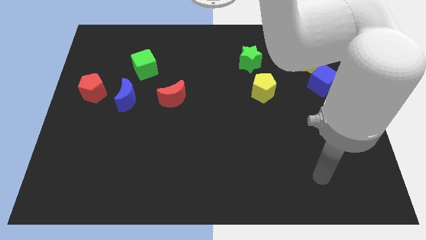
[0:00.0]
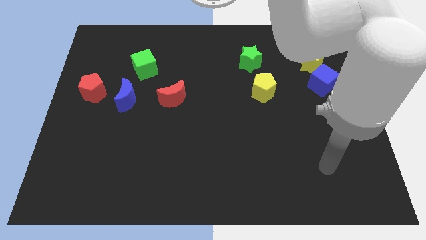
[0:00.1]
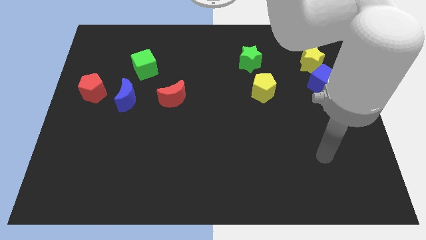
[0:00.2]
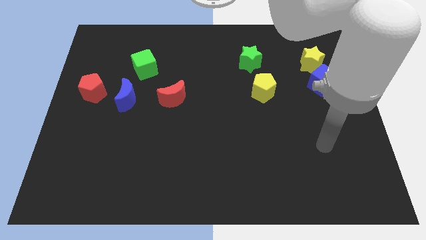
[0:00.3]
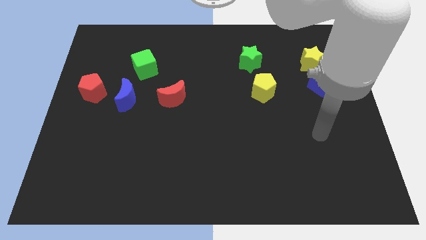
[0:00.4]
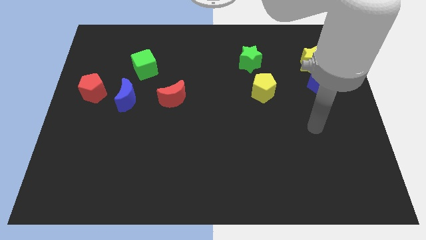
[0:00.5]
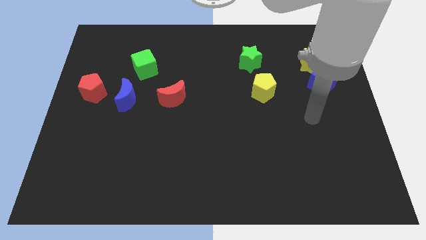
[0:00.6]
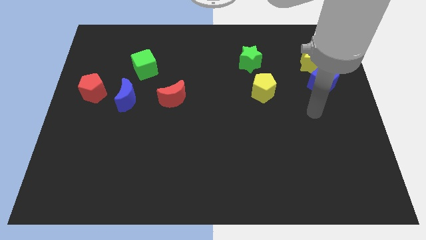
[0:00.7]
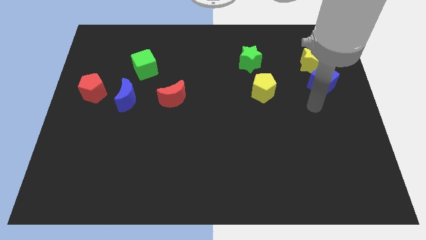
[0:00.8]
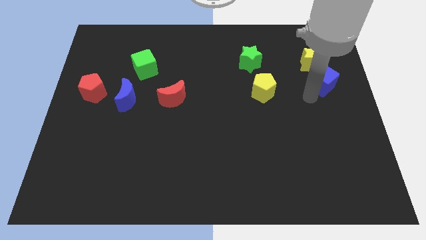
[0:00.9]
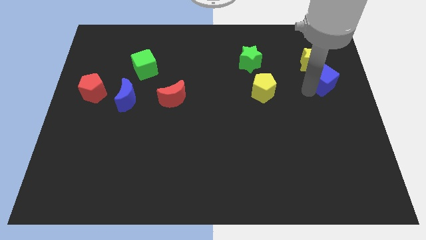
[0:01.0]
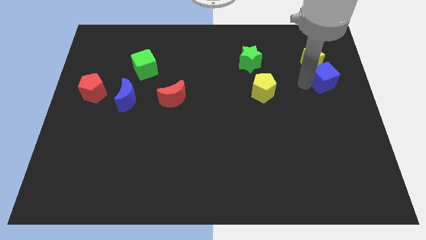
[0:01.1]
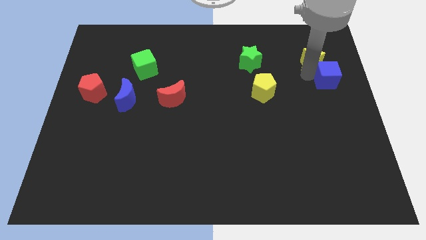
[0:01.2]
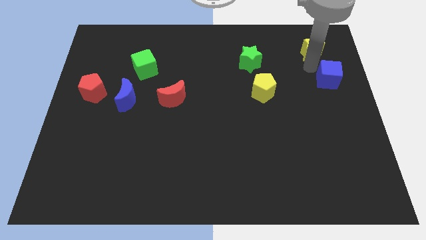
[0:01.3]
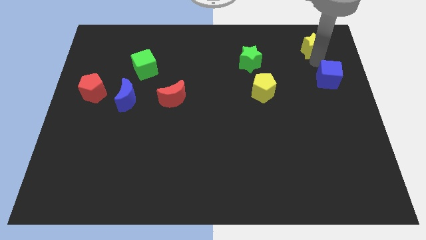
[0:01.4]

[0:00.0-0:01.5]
pull the blue cube apart from the yellow star

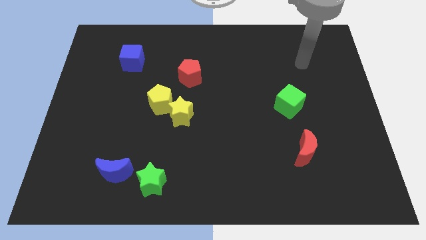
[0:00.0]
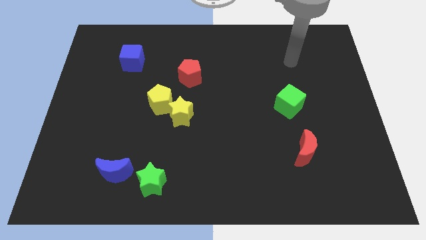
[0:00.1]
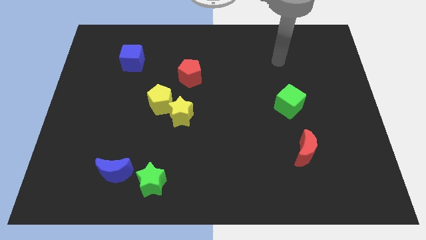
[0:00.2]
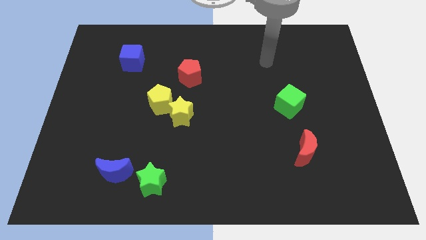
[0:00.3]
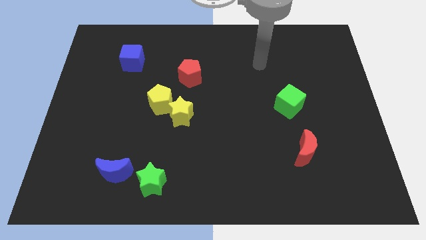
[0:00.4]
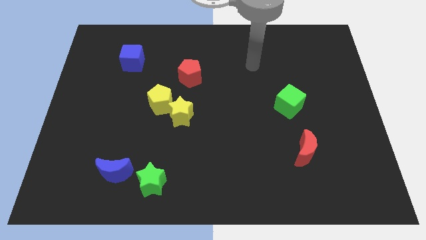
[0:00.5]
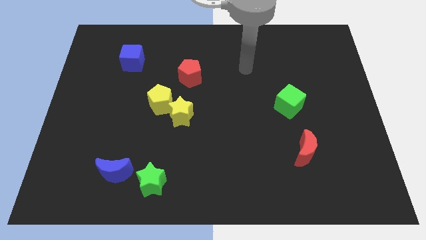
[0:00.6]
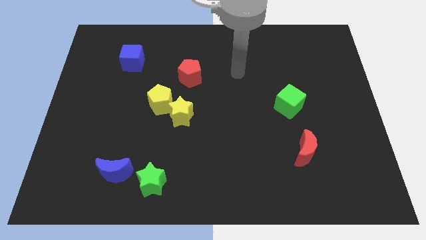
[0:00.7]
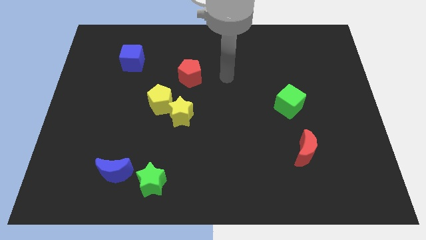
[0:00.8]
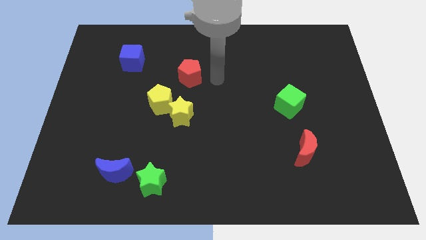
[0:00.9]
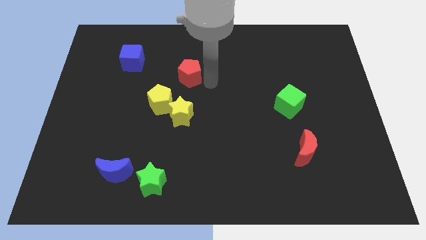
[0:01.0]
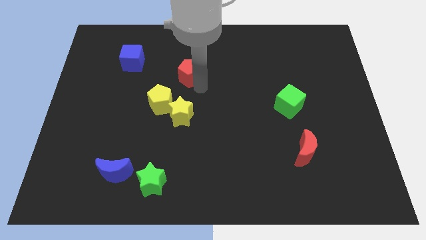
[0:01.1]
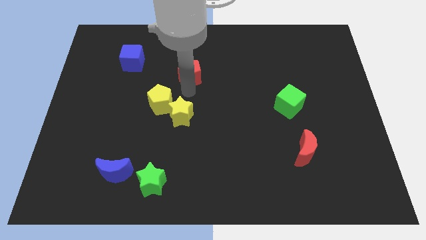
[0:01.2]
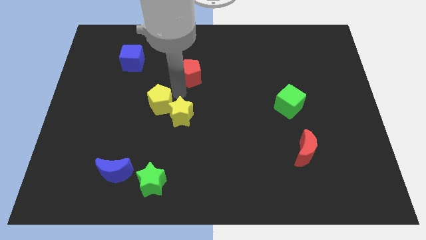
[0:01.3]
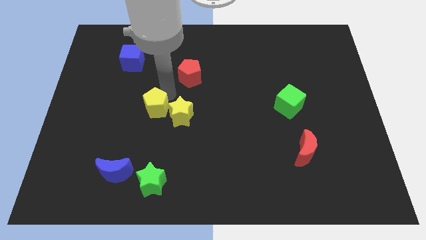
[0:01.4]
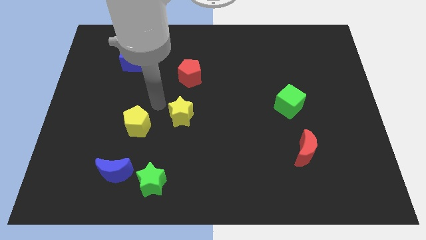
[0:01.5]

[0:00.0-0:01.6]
separate the yellow star from the yellow pentagon

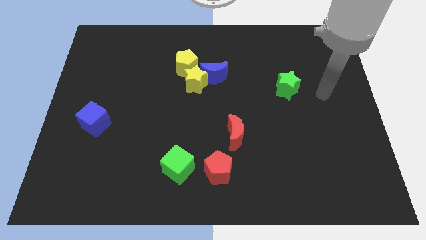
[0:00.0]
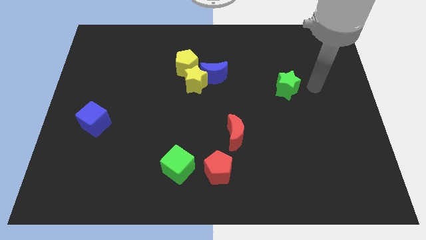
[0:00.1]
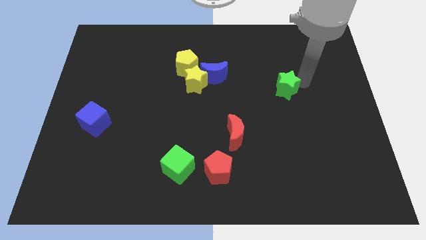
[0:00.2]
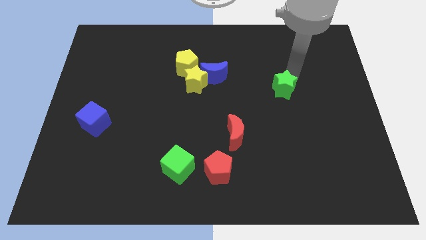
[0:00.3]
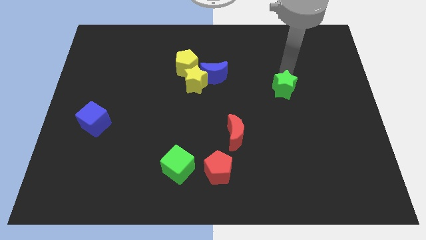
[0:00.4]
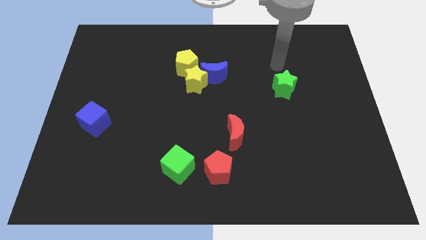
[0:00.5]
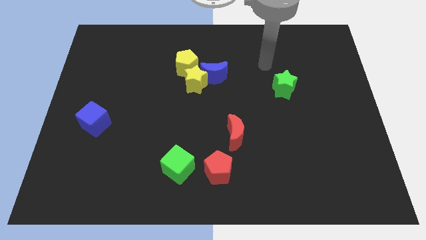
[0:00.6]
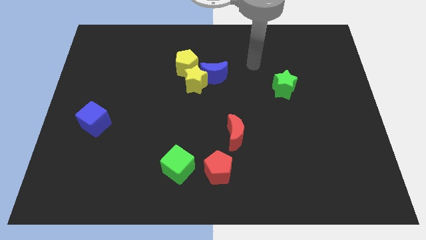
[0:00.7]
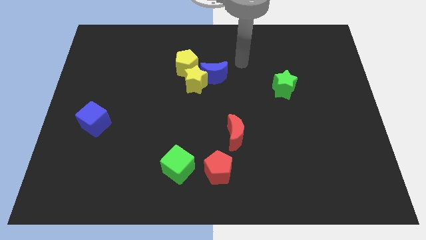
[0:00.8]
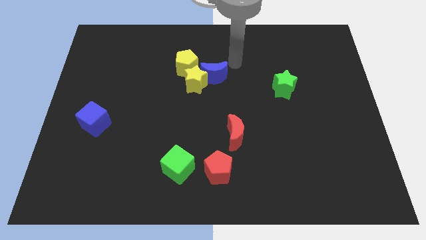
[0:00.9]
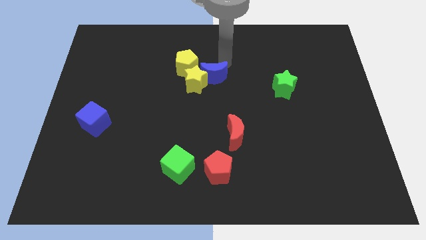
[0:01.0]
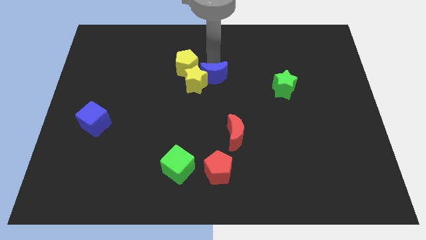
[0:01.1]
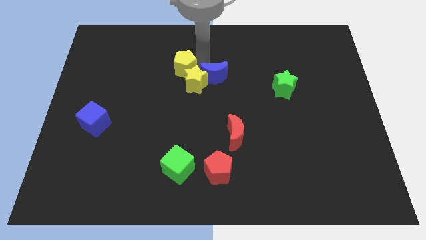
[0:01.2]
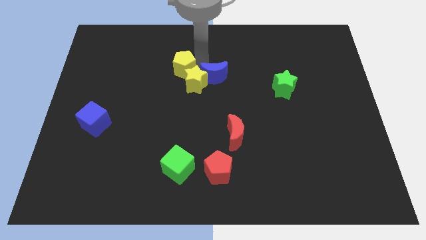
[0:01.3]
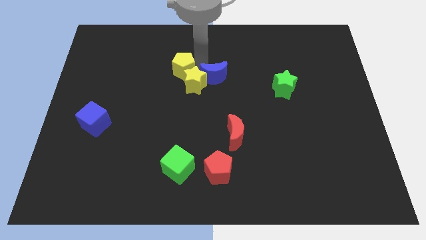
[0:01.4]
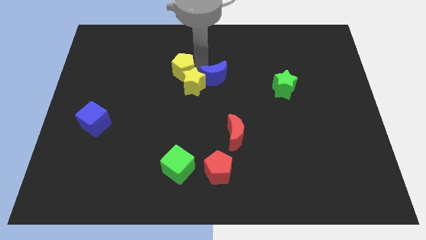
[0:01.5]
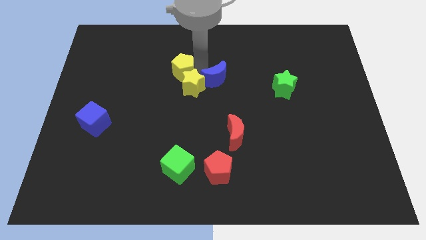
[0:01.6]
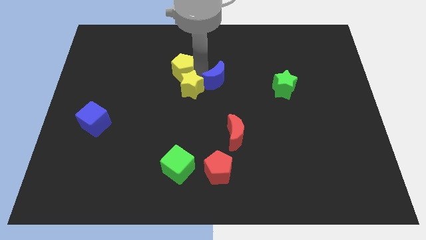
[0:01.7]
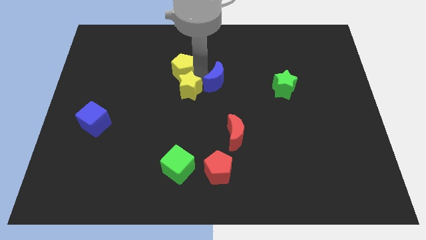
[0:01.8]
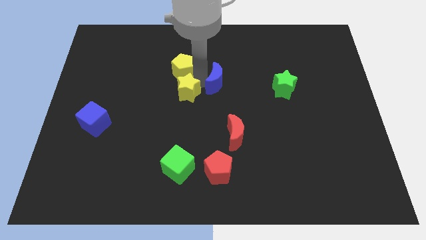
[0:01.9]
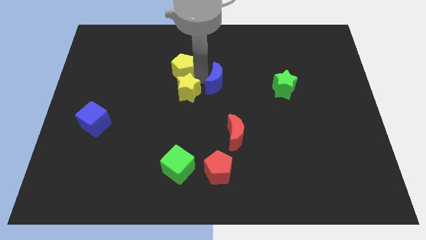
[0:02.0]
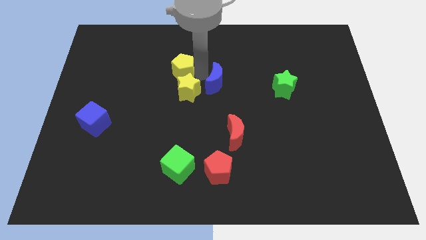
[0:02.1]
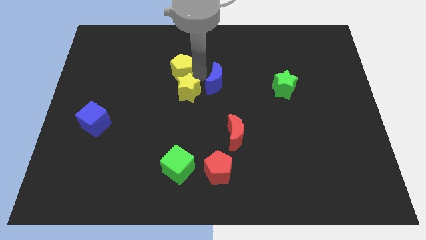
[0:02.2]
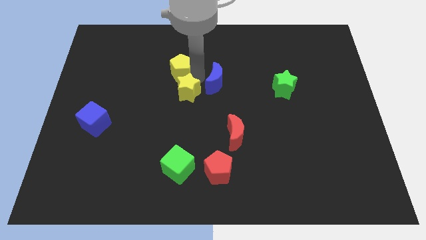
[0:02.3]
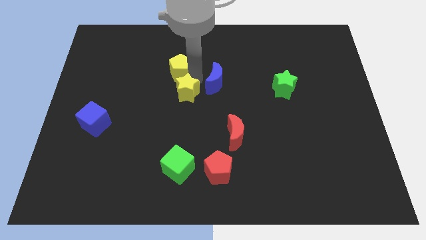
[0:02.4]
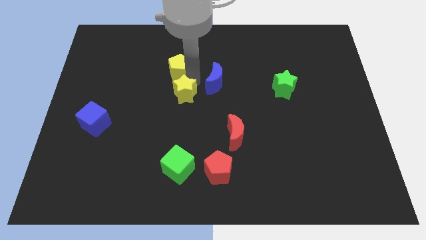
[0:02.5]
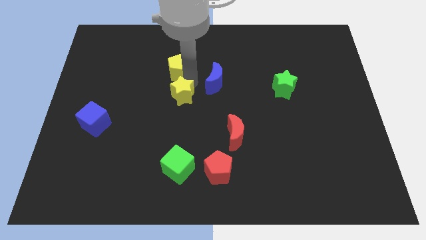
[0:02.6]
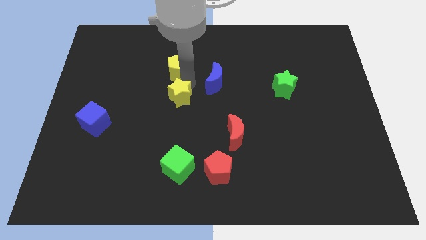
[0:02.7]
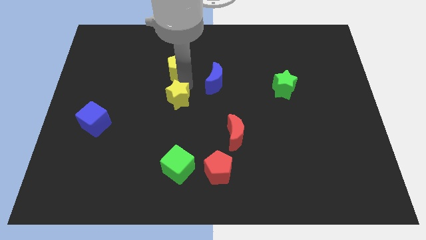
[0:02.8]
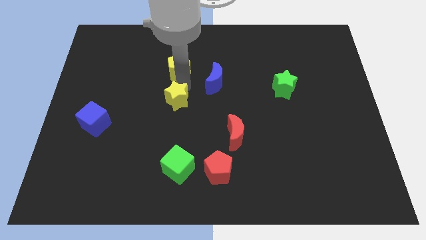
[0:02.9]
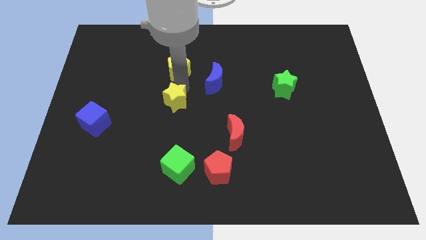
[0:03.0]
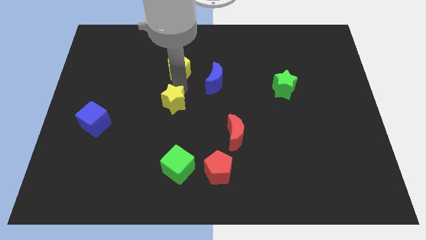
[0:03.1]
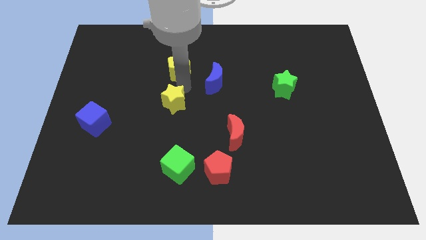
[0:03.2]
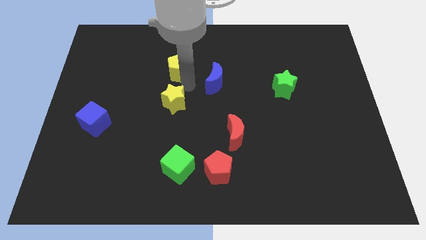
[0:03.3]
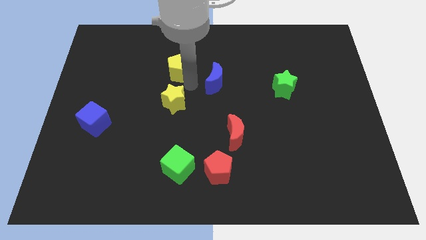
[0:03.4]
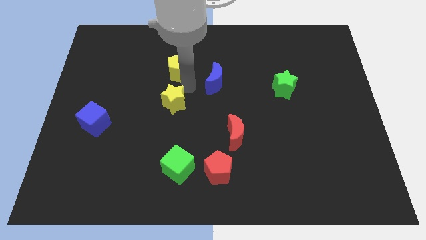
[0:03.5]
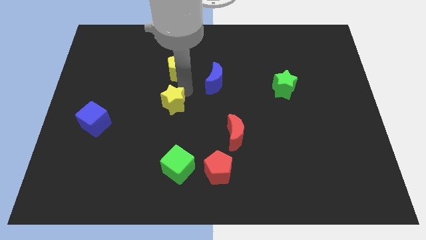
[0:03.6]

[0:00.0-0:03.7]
move the yellow star away from the blue moon and yellow pentagon

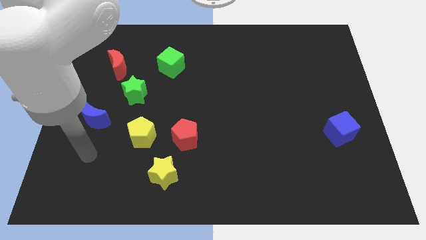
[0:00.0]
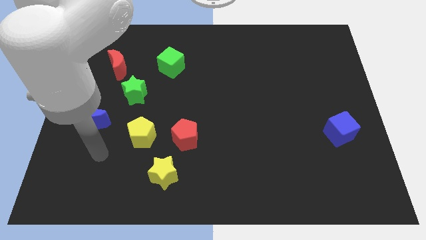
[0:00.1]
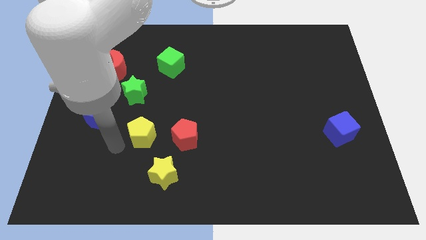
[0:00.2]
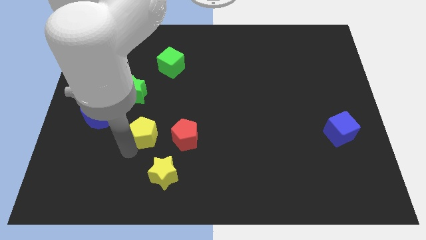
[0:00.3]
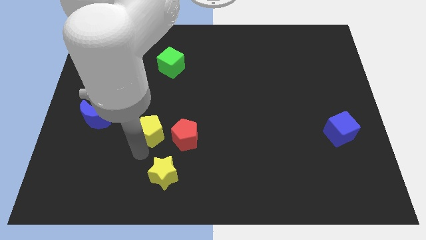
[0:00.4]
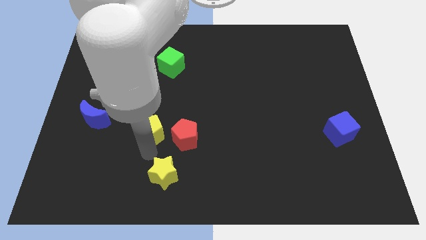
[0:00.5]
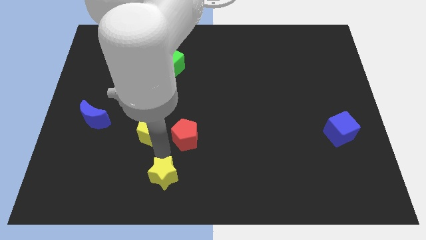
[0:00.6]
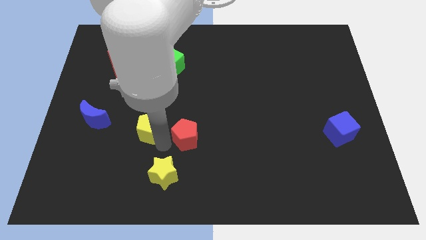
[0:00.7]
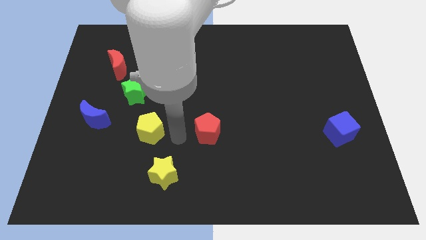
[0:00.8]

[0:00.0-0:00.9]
separate the yellow pentagon from the red pentagon

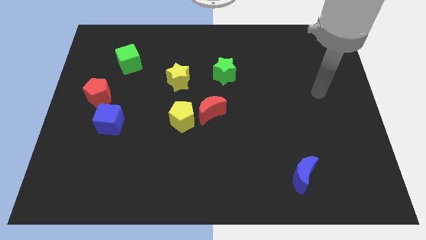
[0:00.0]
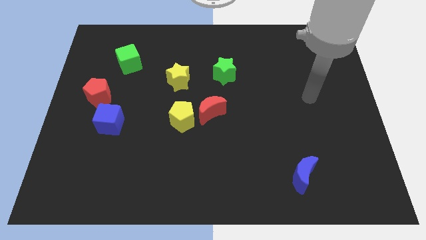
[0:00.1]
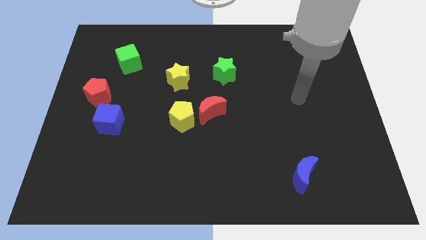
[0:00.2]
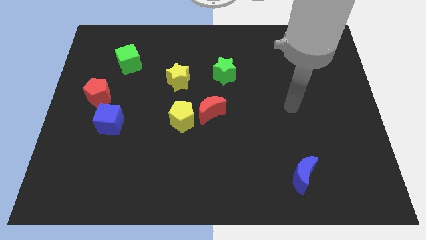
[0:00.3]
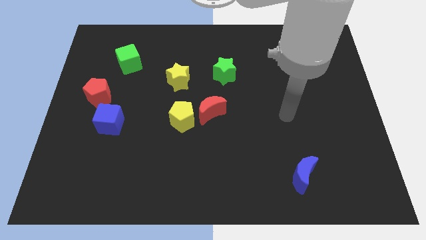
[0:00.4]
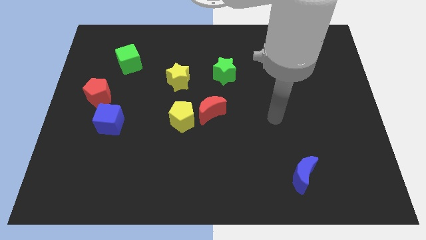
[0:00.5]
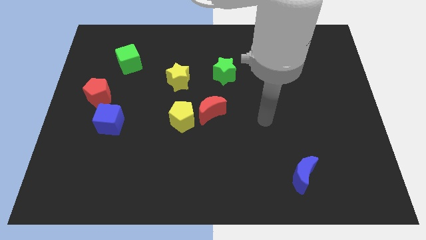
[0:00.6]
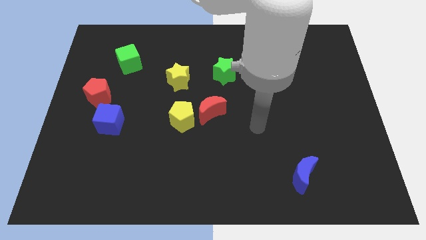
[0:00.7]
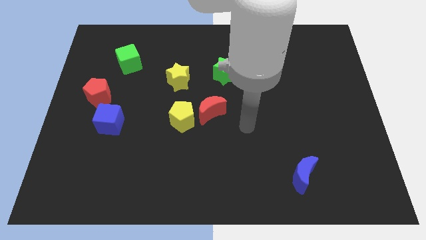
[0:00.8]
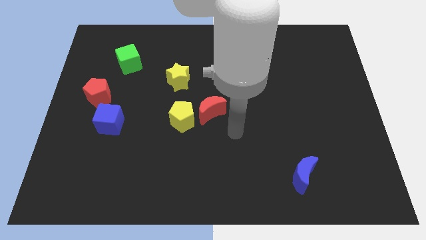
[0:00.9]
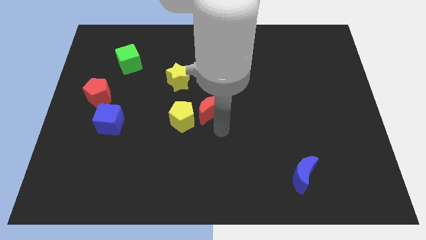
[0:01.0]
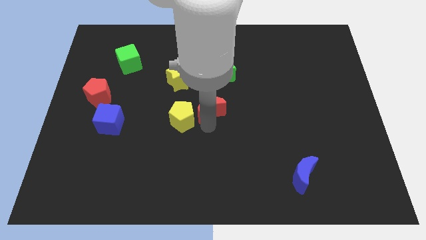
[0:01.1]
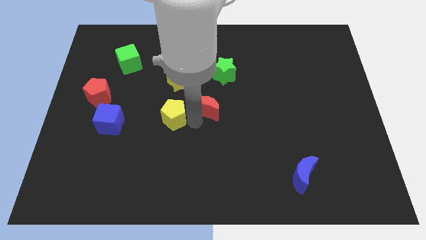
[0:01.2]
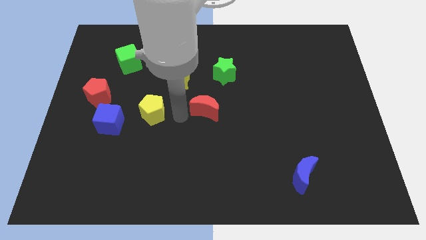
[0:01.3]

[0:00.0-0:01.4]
move the red moon away from the yellow pentagon
